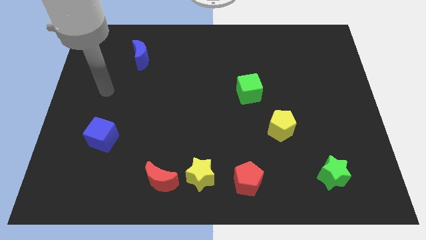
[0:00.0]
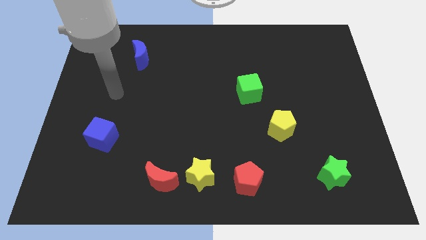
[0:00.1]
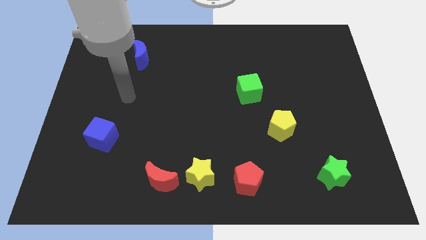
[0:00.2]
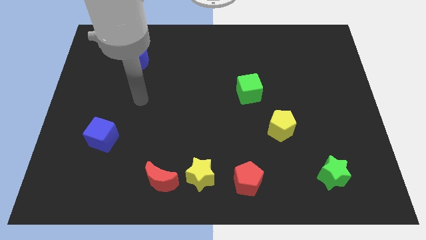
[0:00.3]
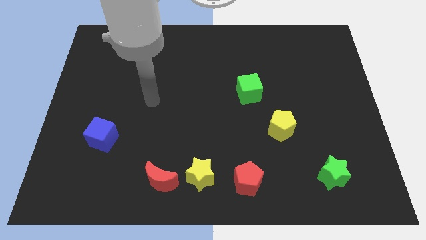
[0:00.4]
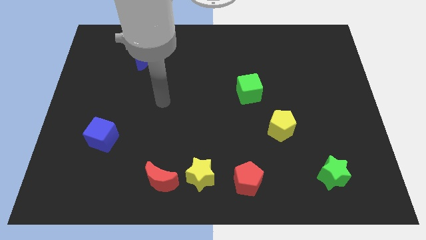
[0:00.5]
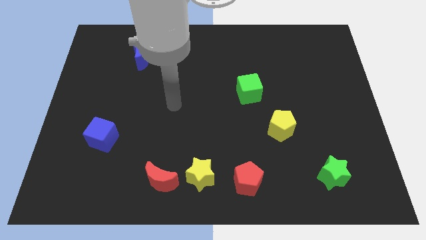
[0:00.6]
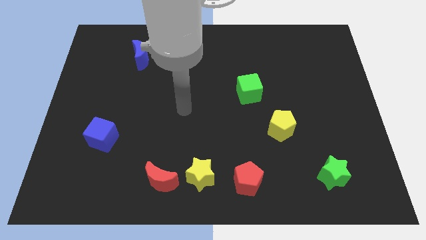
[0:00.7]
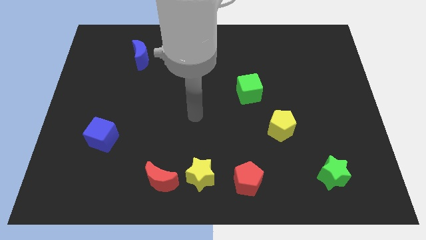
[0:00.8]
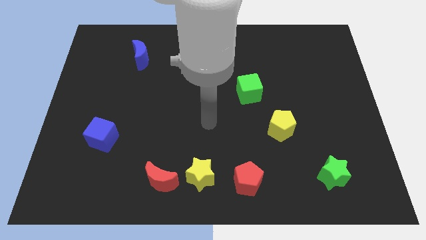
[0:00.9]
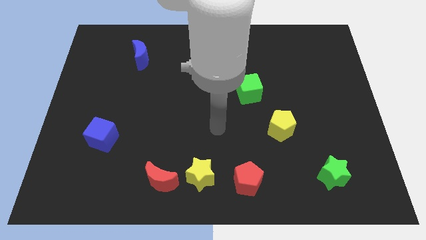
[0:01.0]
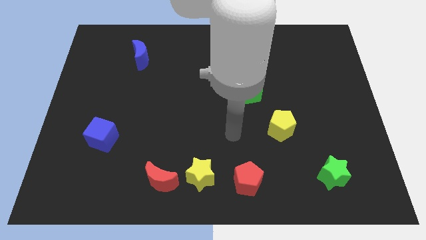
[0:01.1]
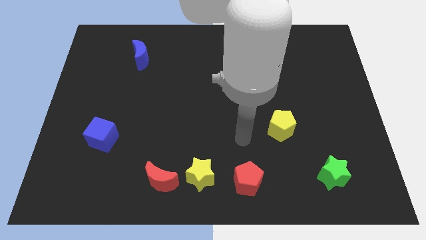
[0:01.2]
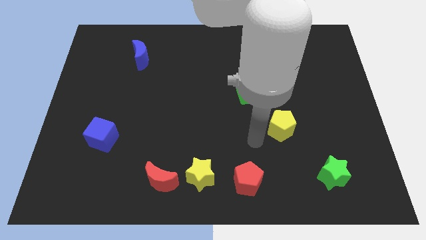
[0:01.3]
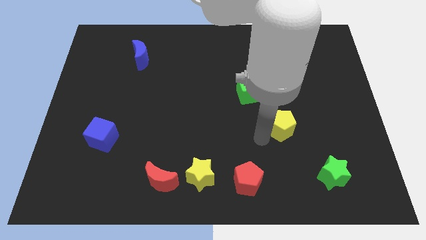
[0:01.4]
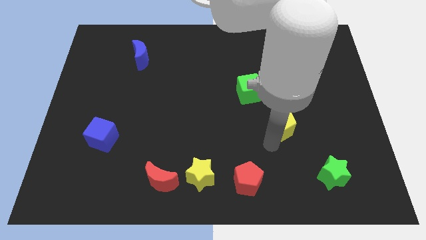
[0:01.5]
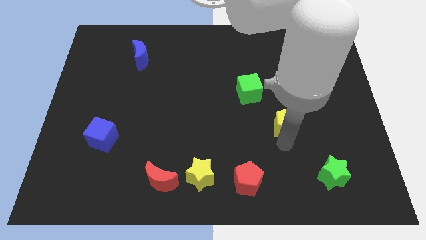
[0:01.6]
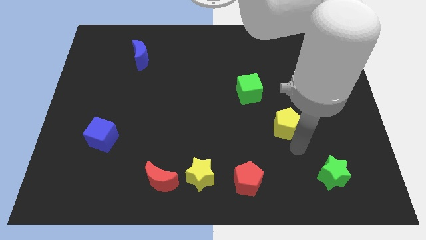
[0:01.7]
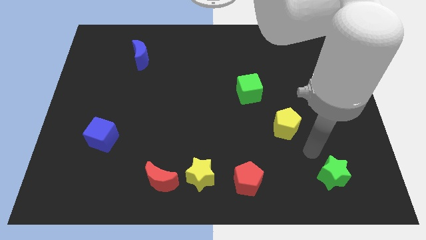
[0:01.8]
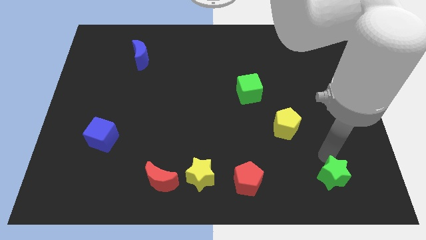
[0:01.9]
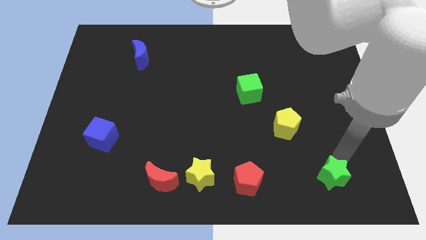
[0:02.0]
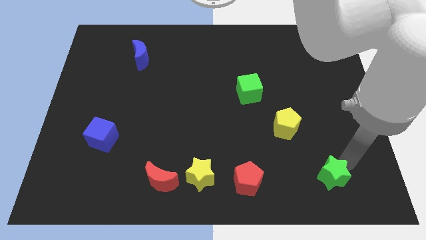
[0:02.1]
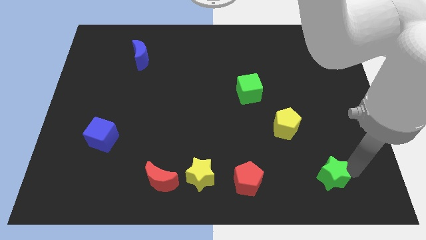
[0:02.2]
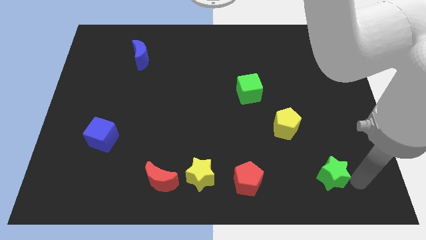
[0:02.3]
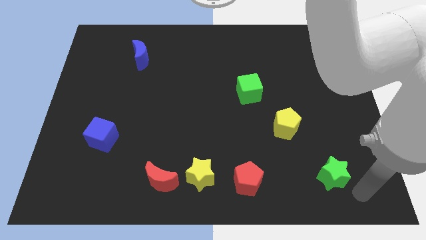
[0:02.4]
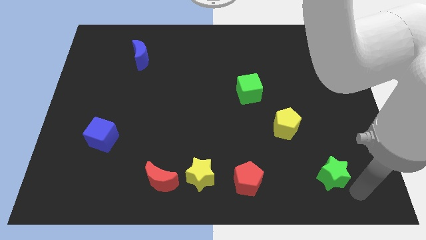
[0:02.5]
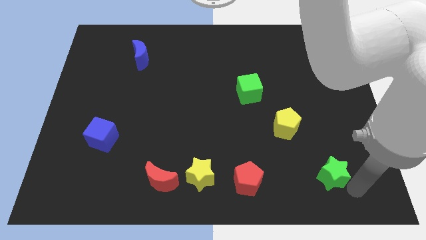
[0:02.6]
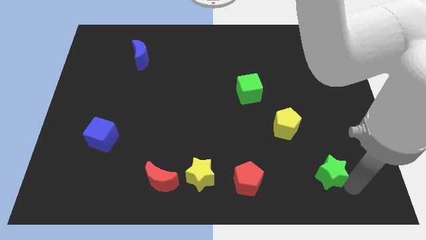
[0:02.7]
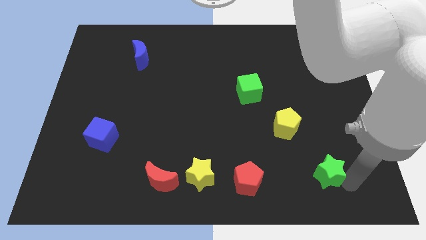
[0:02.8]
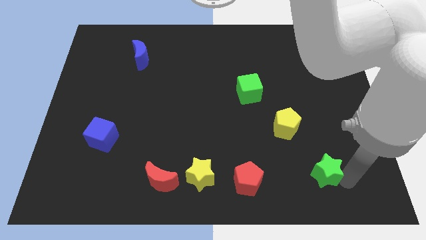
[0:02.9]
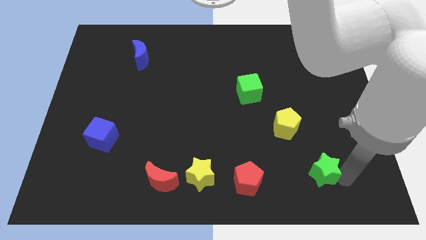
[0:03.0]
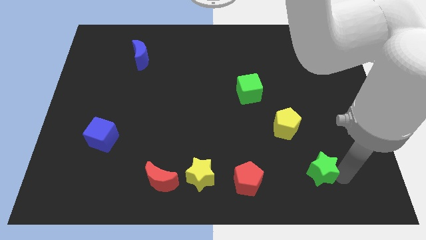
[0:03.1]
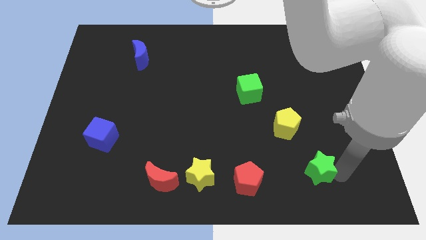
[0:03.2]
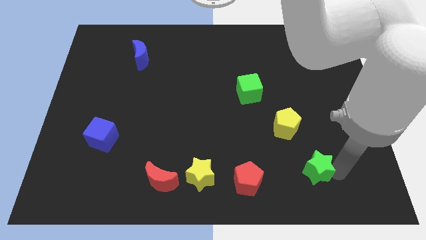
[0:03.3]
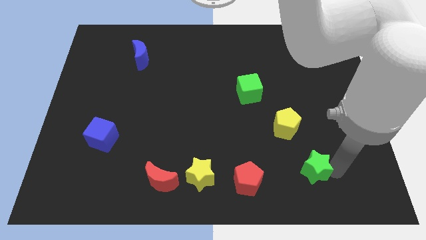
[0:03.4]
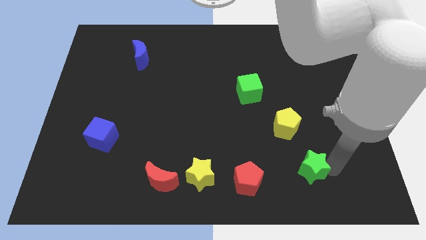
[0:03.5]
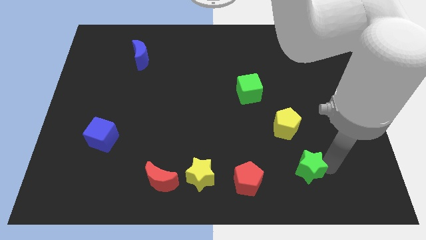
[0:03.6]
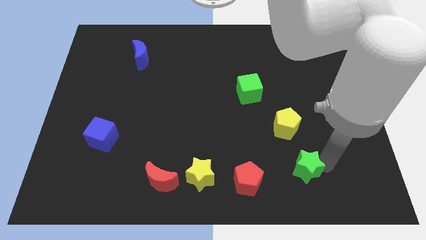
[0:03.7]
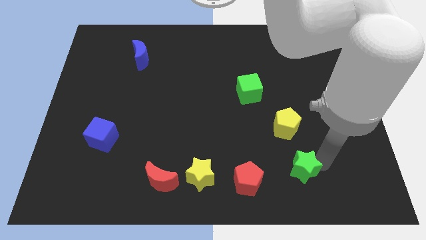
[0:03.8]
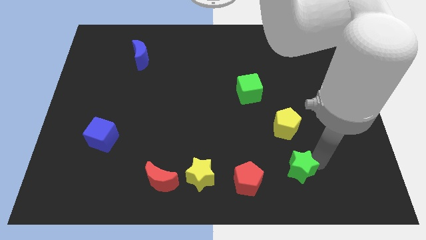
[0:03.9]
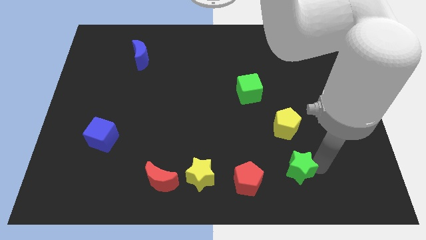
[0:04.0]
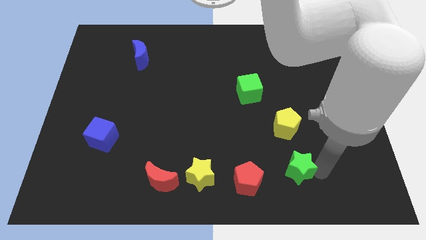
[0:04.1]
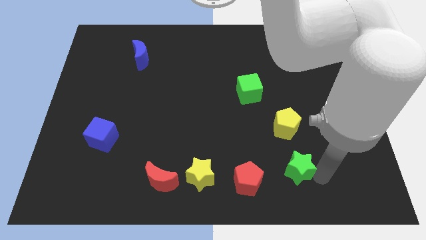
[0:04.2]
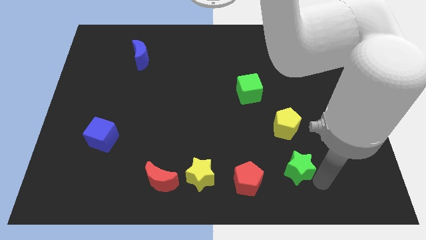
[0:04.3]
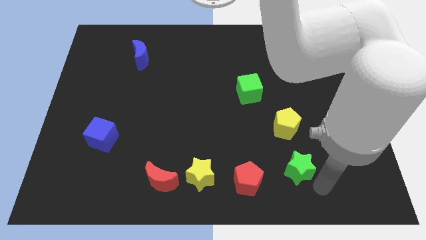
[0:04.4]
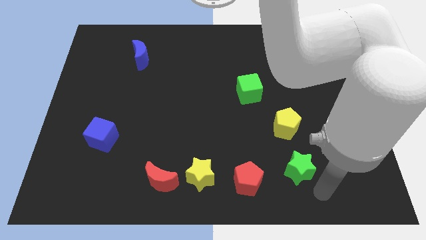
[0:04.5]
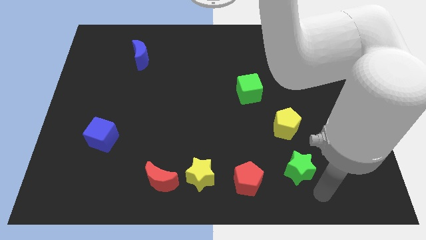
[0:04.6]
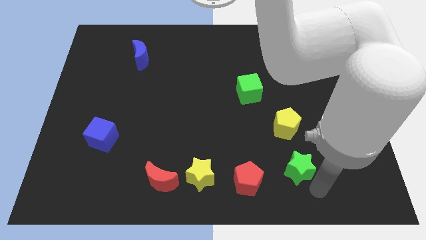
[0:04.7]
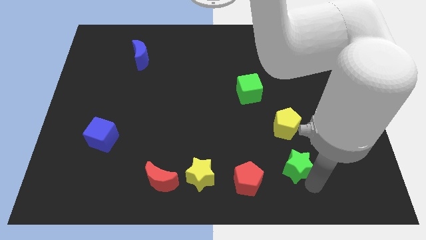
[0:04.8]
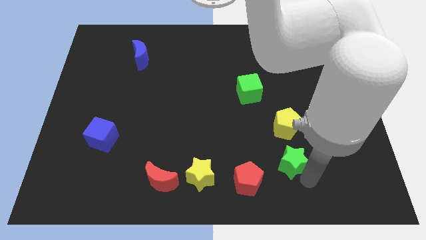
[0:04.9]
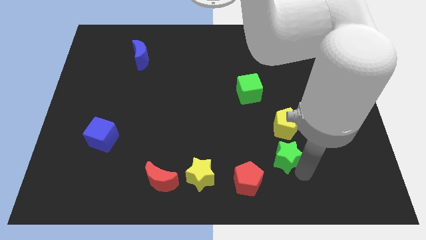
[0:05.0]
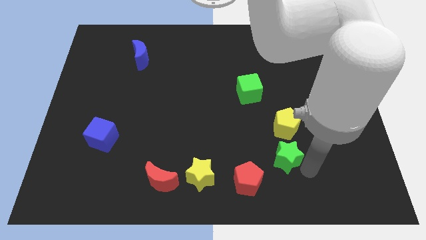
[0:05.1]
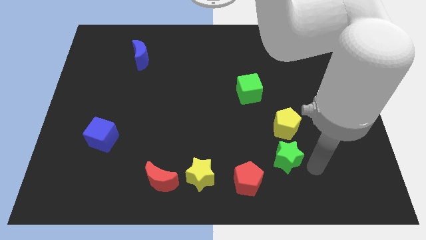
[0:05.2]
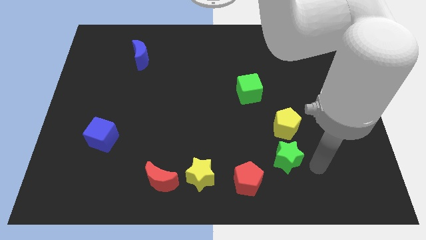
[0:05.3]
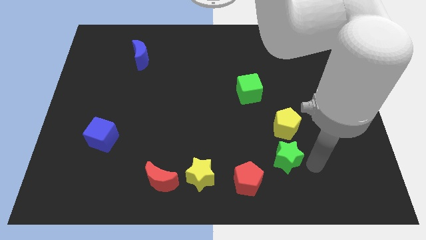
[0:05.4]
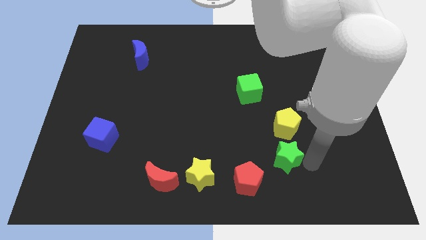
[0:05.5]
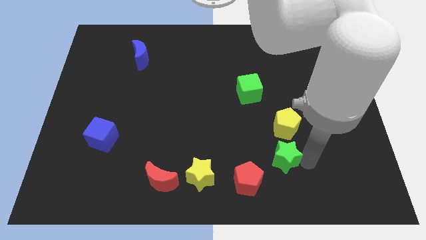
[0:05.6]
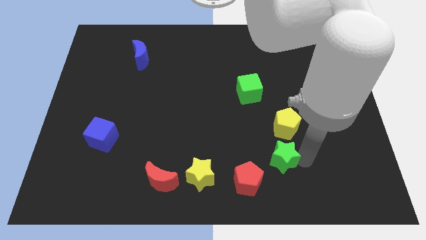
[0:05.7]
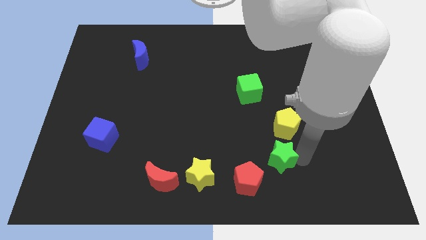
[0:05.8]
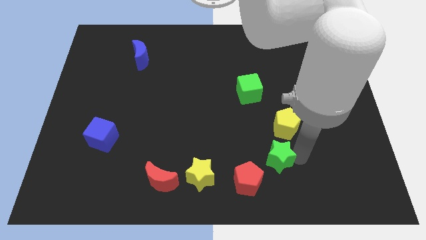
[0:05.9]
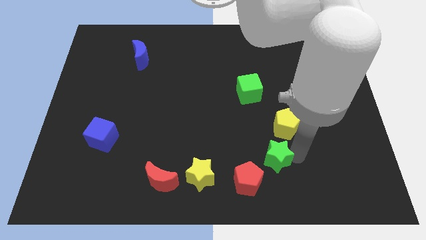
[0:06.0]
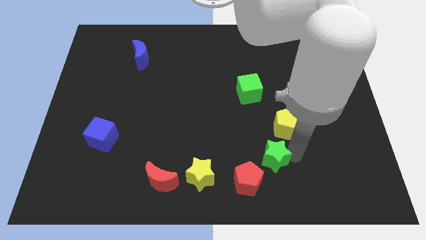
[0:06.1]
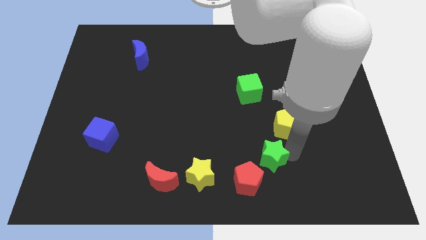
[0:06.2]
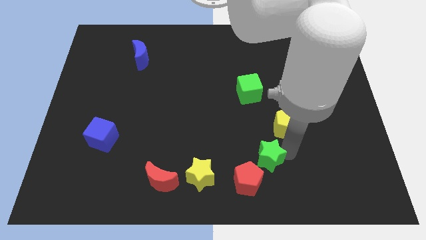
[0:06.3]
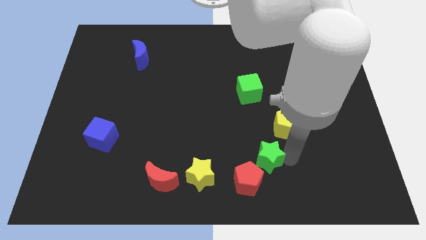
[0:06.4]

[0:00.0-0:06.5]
move the green star to the top of the red pentagon

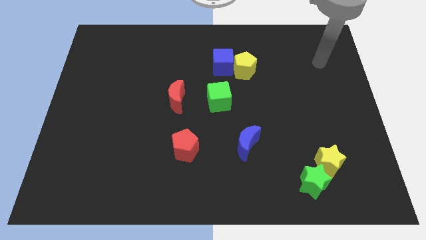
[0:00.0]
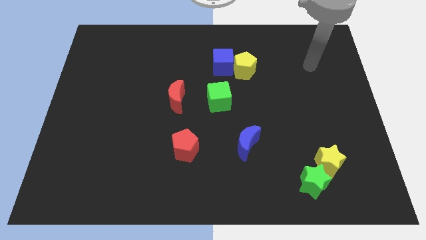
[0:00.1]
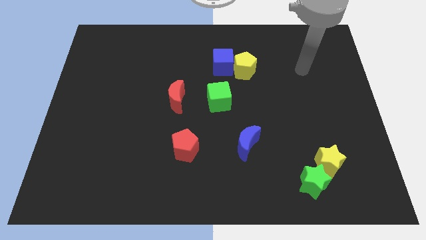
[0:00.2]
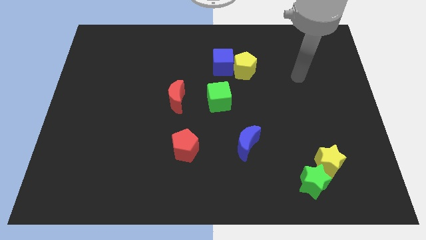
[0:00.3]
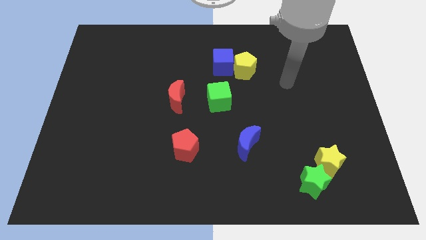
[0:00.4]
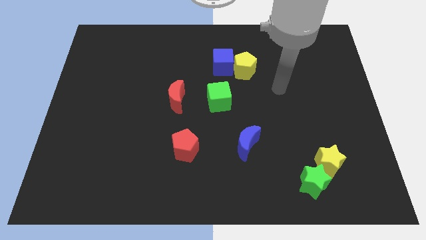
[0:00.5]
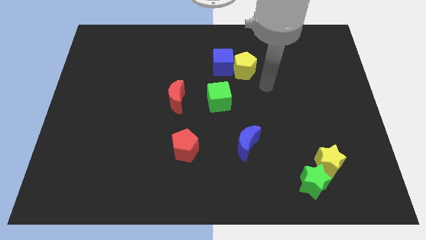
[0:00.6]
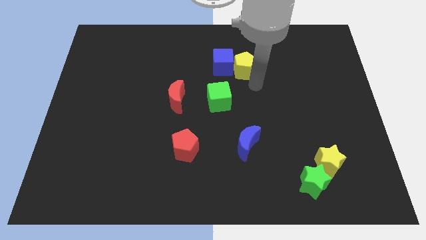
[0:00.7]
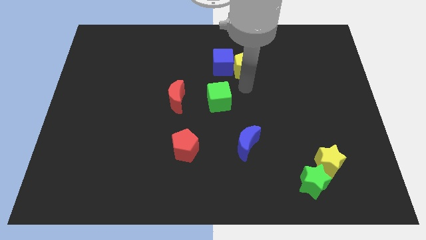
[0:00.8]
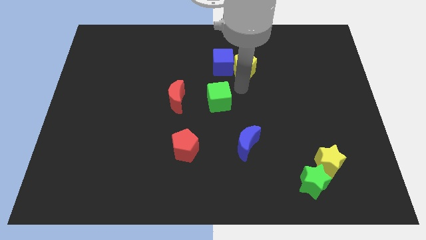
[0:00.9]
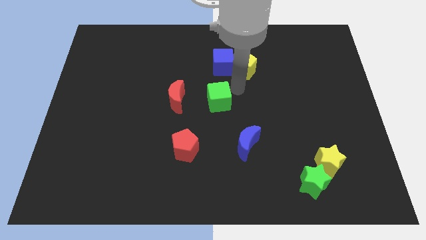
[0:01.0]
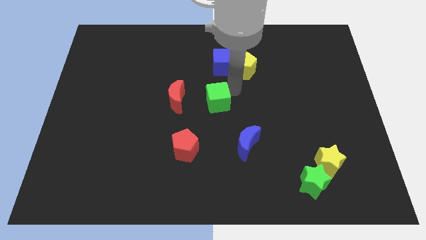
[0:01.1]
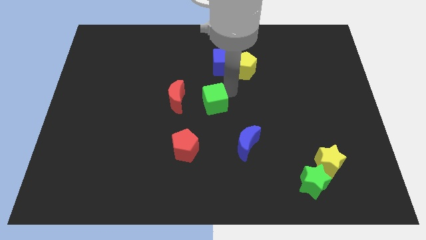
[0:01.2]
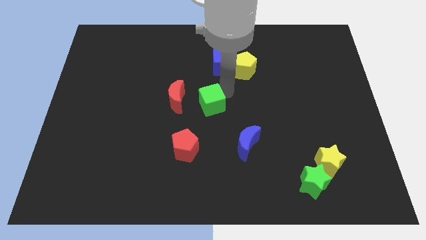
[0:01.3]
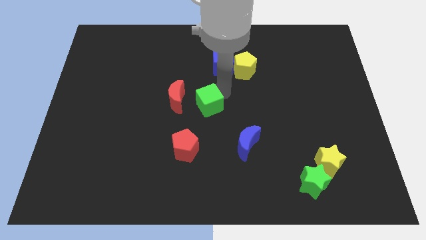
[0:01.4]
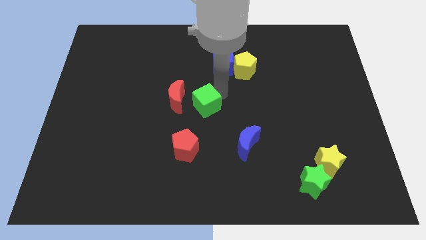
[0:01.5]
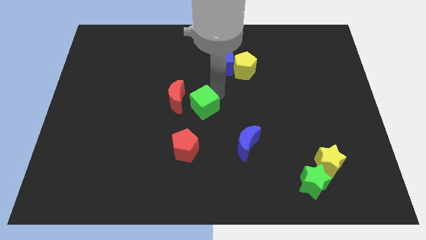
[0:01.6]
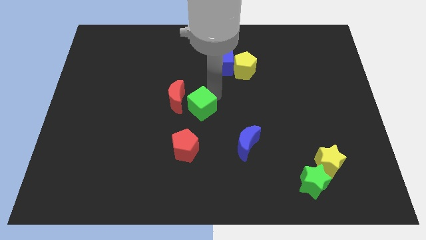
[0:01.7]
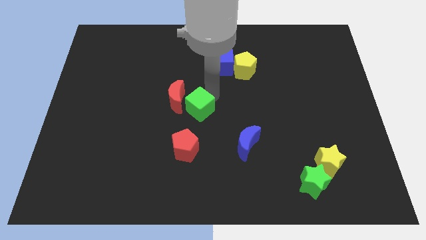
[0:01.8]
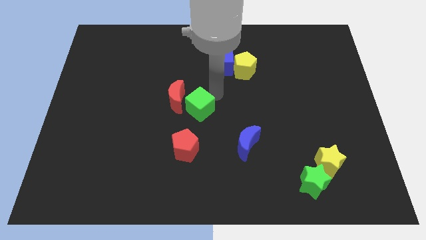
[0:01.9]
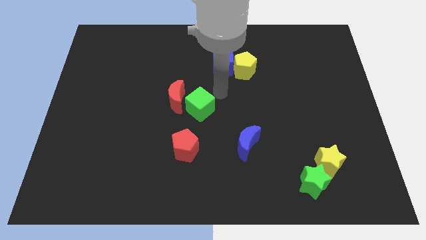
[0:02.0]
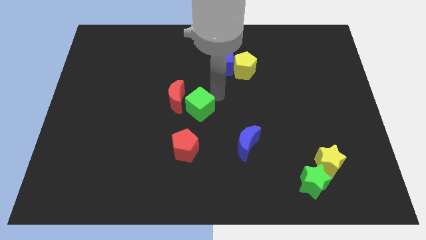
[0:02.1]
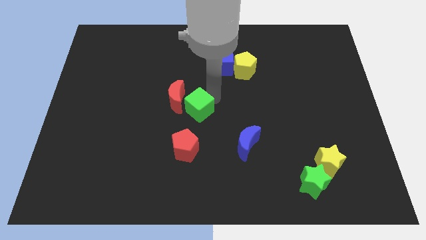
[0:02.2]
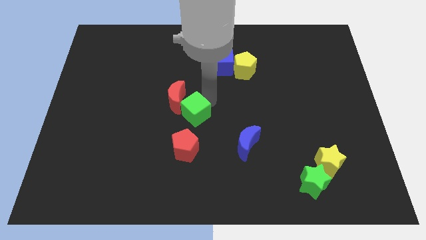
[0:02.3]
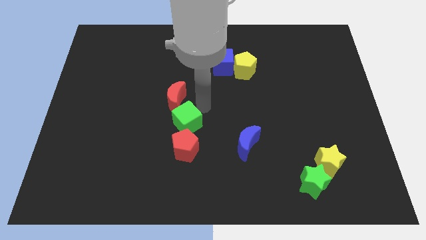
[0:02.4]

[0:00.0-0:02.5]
slide the green cube diagonally up and to the left of the red pentagon
